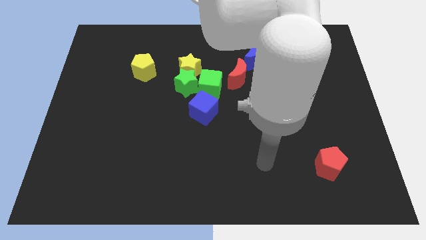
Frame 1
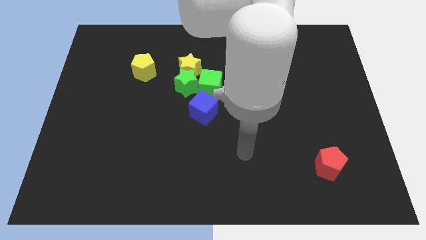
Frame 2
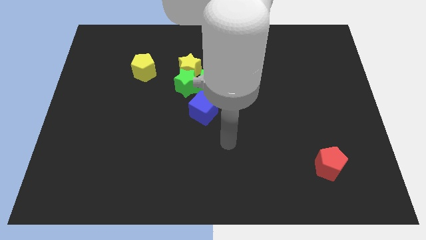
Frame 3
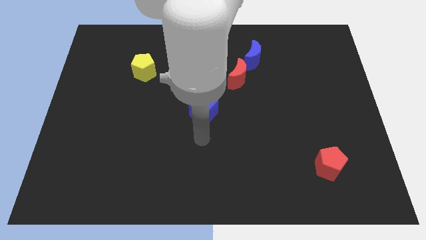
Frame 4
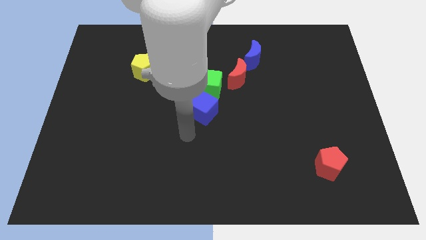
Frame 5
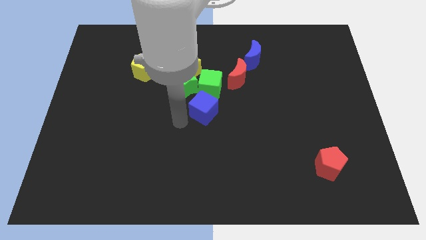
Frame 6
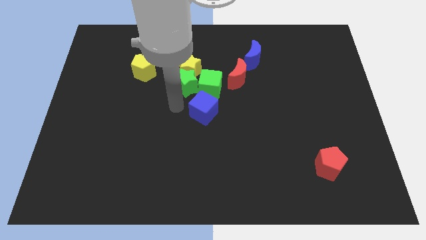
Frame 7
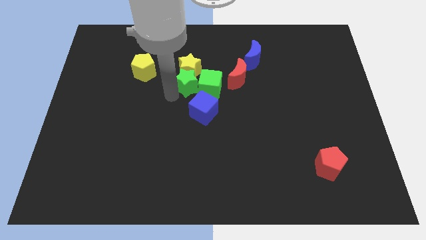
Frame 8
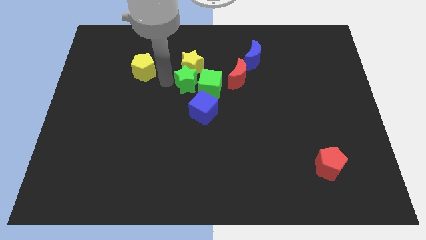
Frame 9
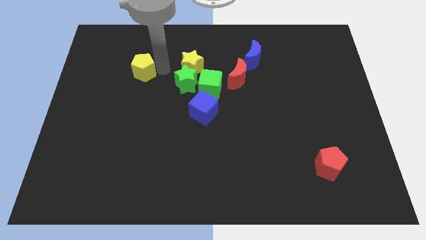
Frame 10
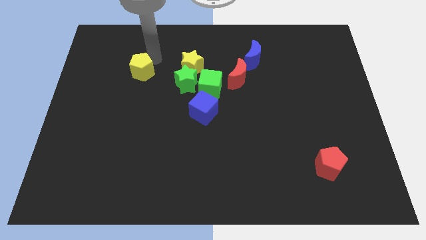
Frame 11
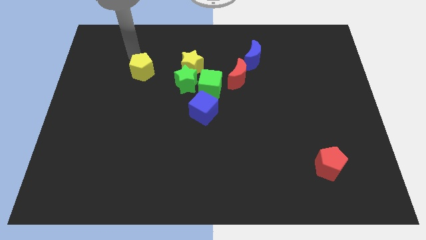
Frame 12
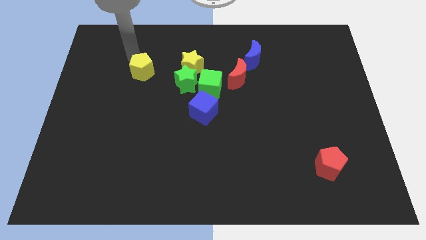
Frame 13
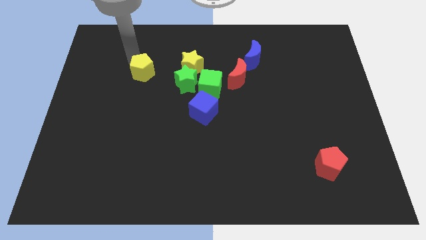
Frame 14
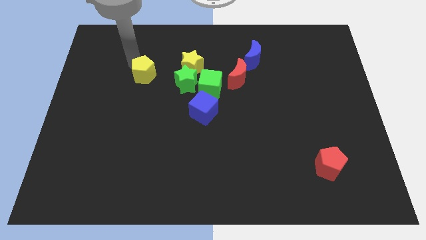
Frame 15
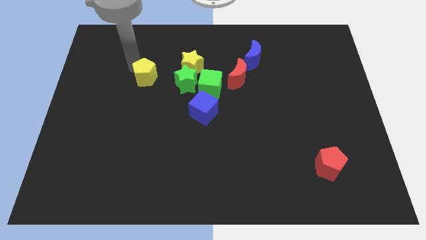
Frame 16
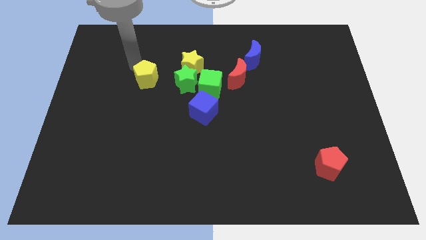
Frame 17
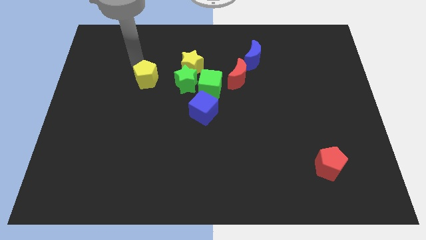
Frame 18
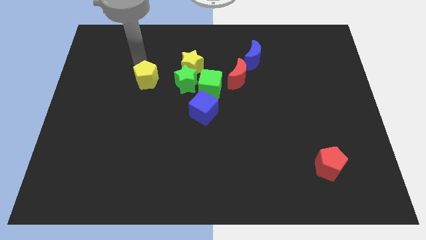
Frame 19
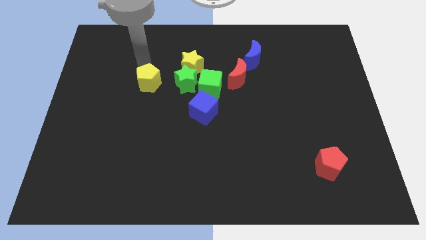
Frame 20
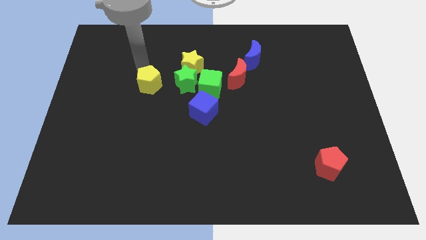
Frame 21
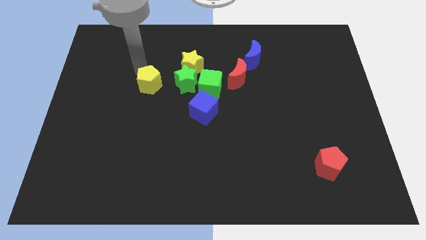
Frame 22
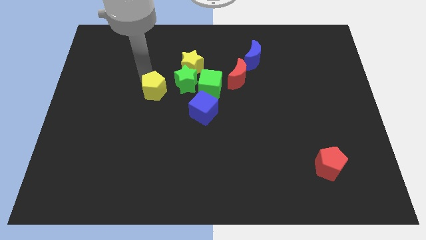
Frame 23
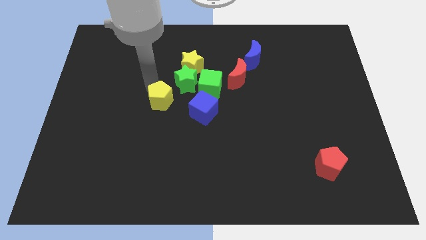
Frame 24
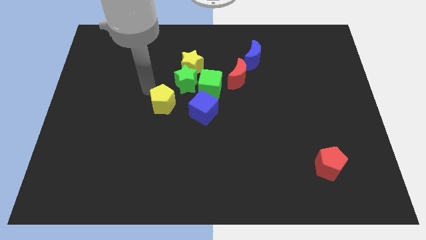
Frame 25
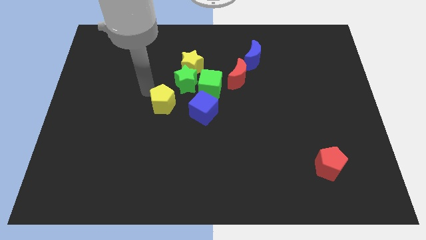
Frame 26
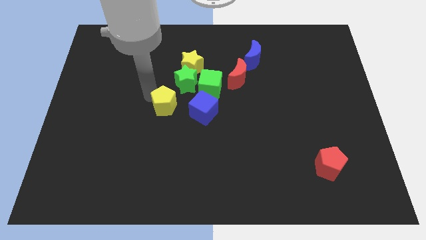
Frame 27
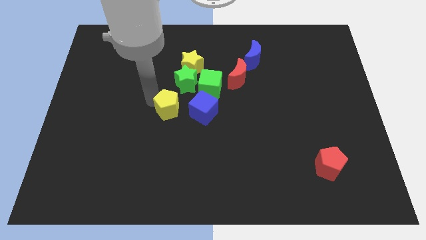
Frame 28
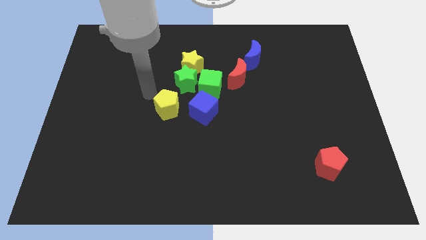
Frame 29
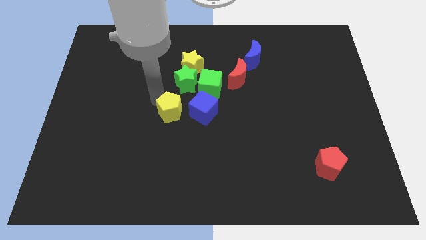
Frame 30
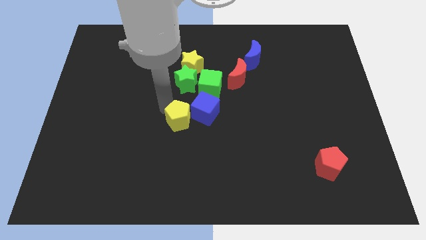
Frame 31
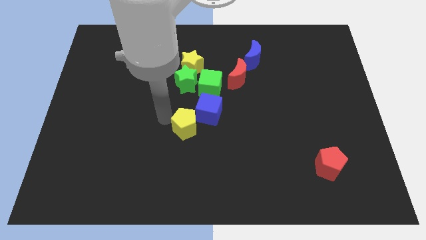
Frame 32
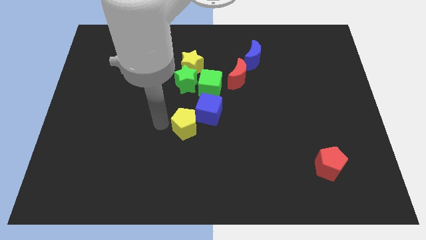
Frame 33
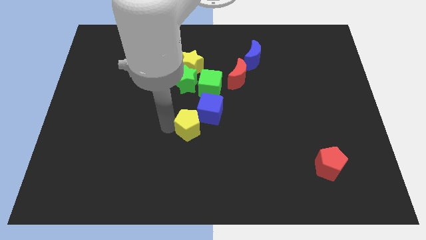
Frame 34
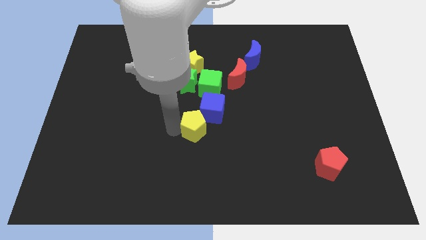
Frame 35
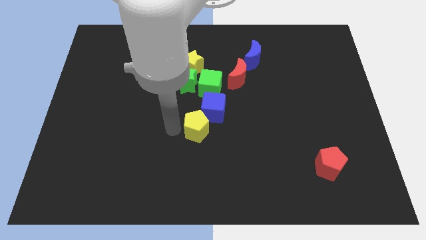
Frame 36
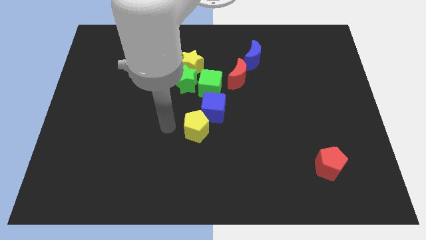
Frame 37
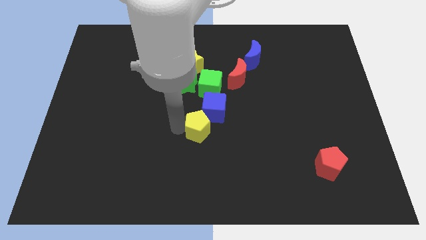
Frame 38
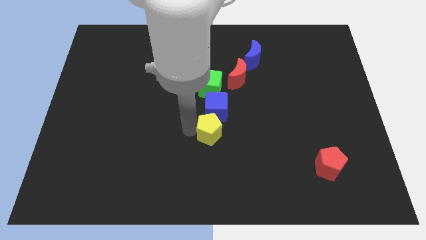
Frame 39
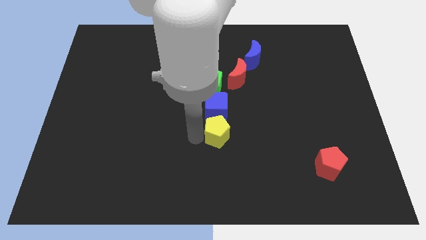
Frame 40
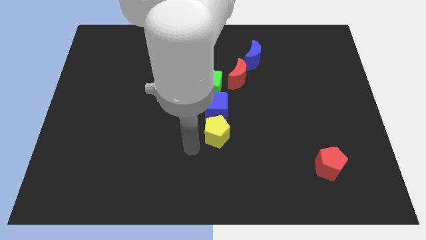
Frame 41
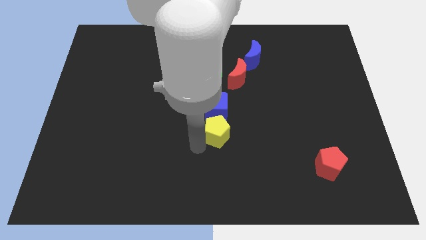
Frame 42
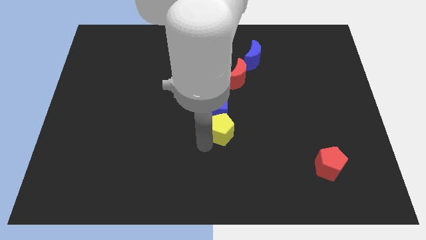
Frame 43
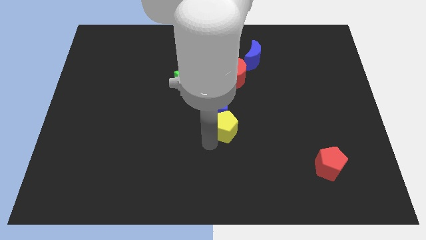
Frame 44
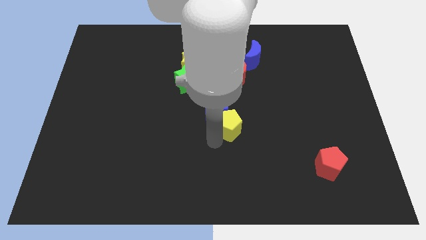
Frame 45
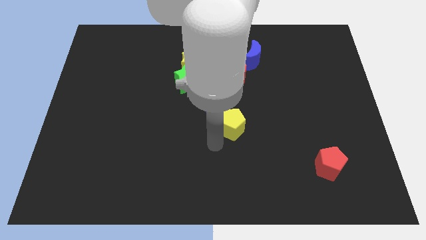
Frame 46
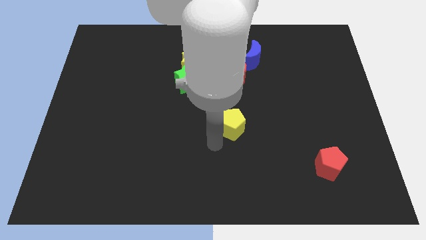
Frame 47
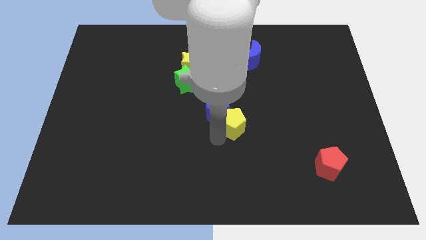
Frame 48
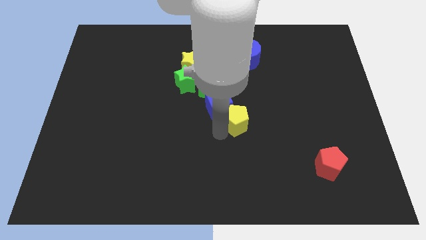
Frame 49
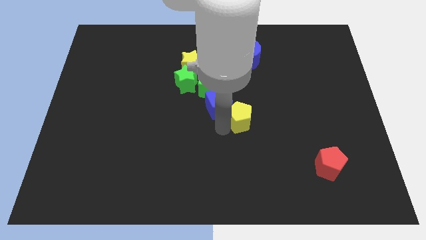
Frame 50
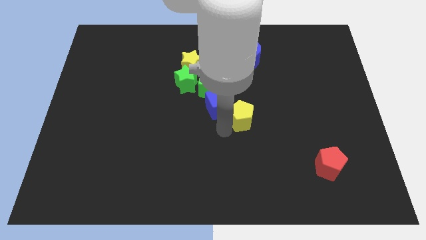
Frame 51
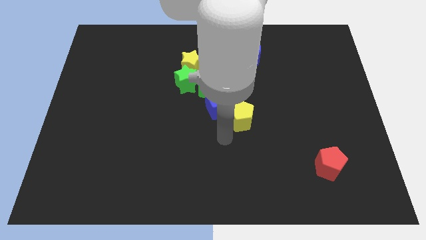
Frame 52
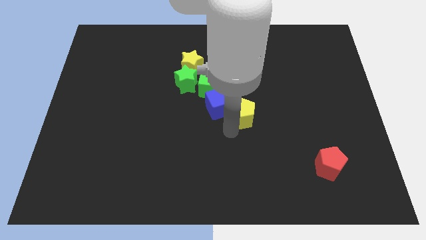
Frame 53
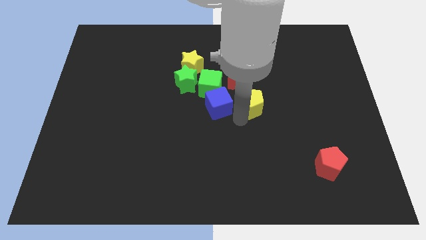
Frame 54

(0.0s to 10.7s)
move the yellow pentagon diagonally down and to the right of the red moon

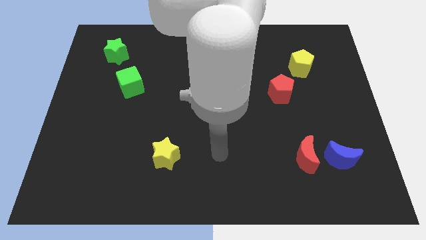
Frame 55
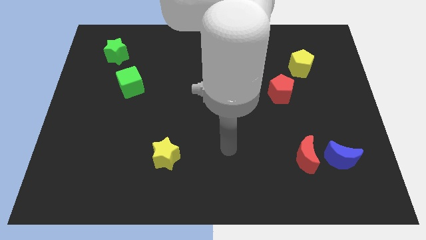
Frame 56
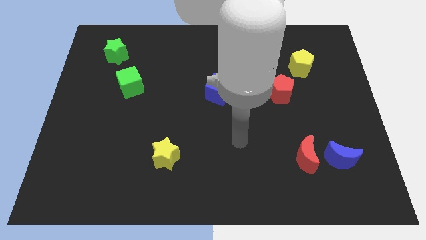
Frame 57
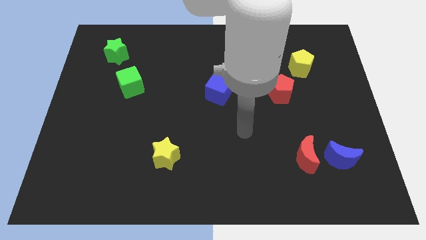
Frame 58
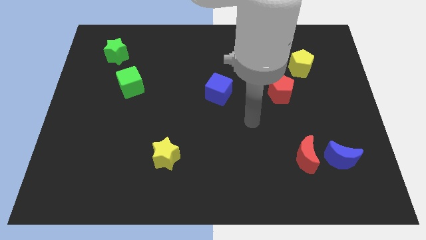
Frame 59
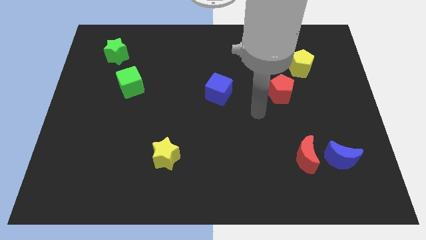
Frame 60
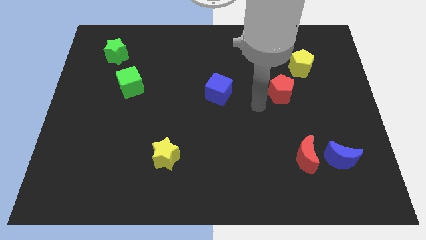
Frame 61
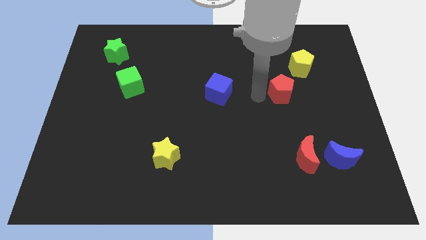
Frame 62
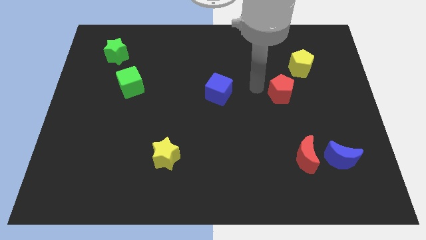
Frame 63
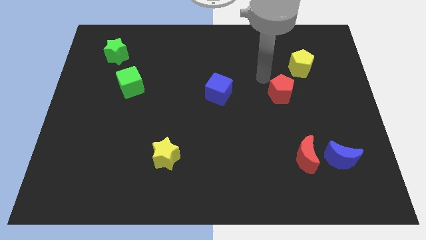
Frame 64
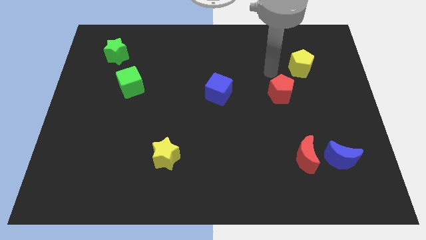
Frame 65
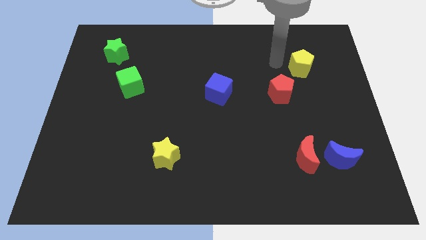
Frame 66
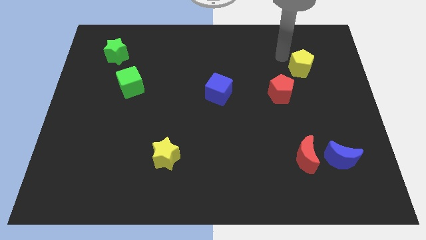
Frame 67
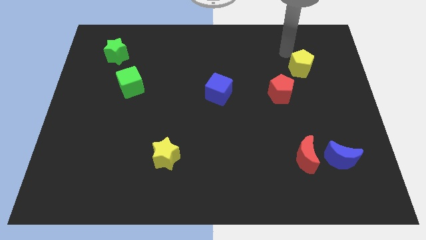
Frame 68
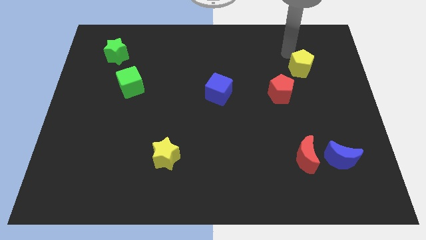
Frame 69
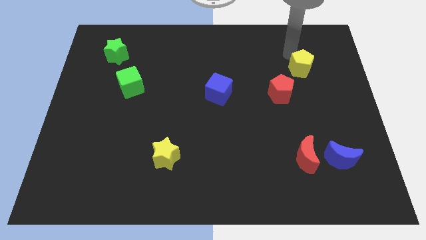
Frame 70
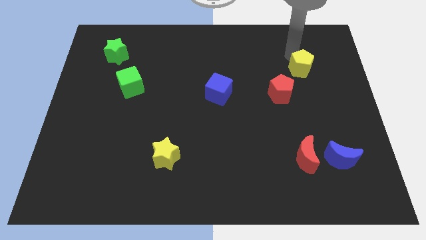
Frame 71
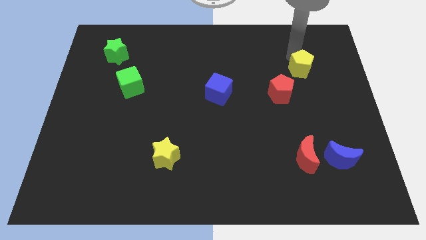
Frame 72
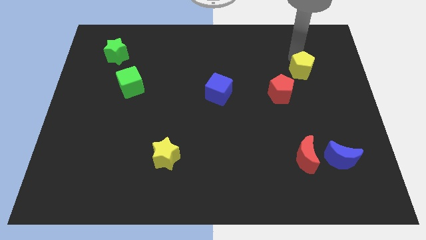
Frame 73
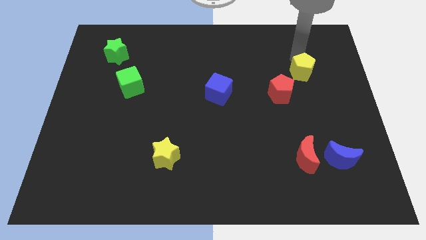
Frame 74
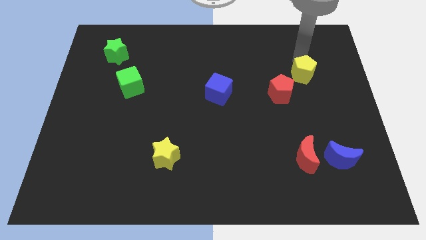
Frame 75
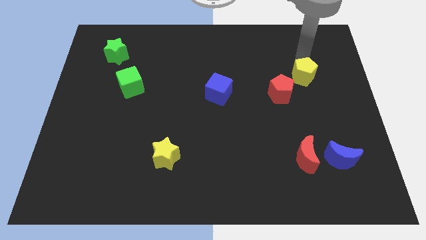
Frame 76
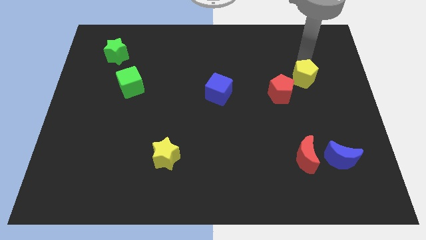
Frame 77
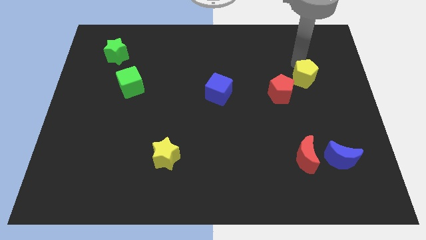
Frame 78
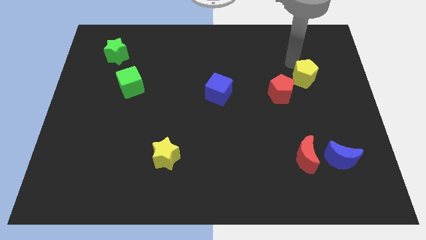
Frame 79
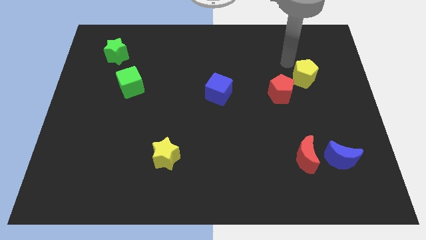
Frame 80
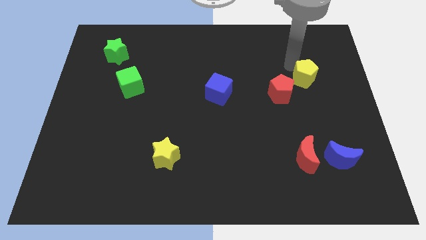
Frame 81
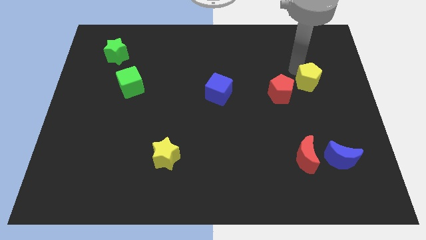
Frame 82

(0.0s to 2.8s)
move the yellow pentagon right of the red pentagon
